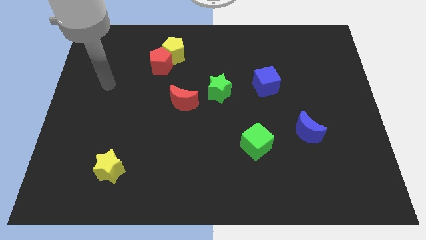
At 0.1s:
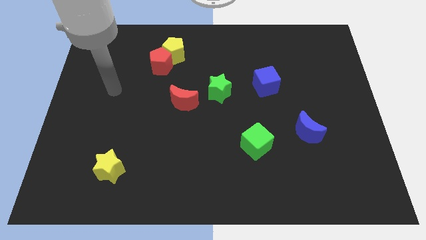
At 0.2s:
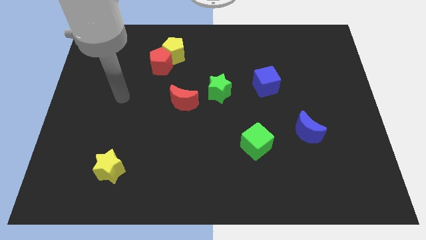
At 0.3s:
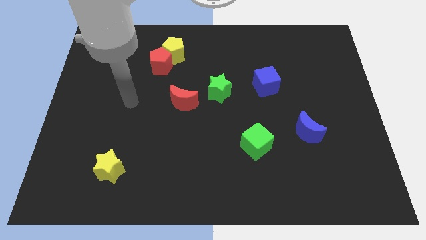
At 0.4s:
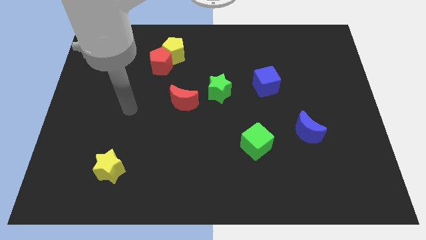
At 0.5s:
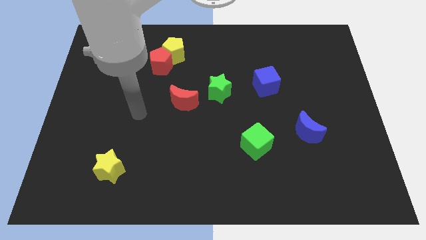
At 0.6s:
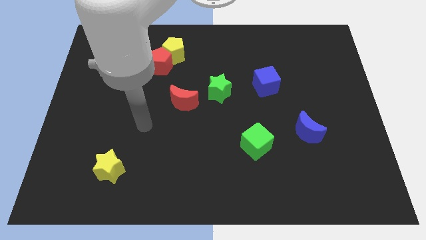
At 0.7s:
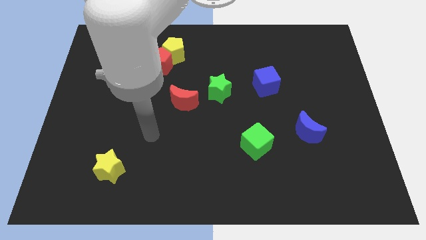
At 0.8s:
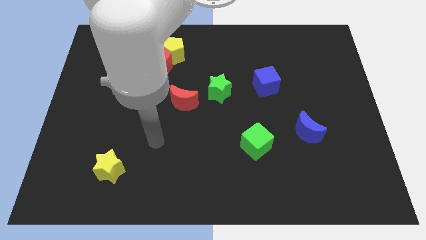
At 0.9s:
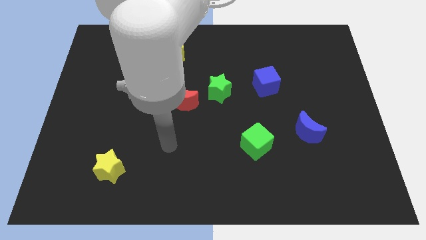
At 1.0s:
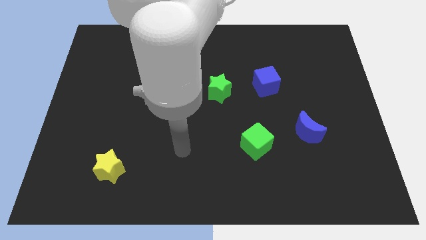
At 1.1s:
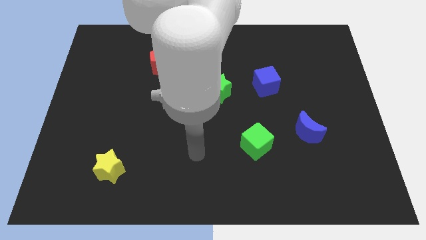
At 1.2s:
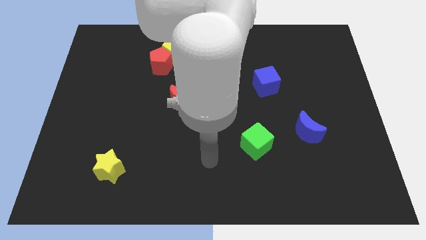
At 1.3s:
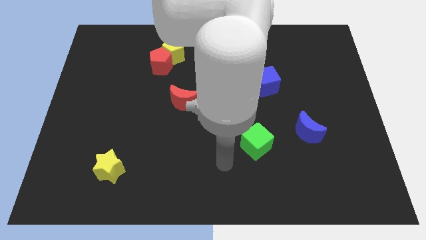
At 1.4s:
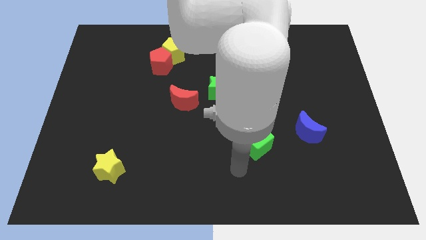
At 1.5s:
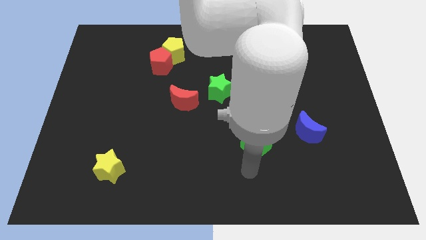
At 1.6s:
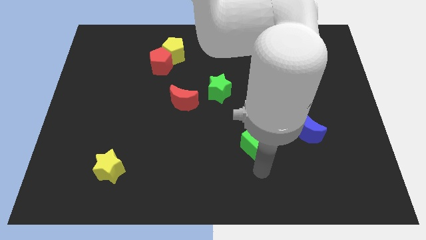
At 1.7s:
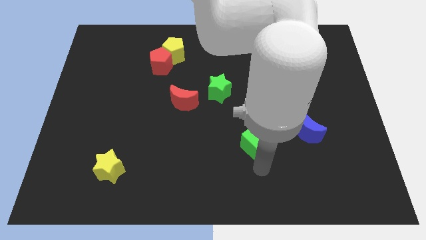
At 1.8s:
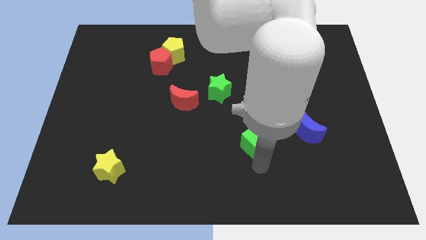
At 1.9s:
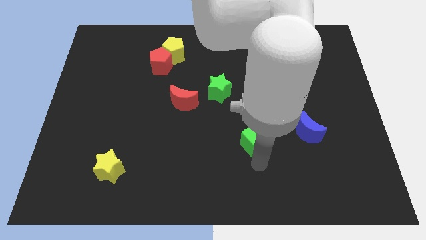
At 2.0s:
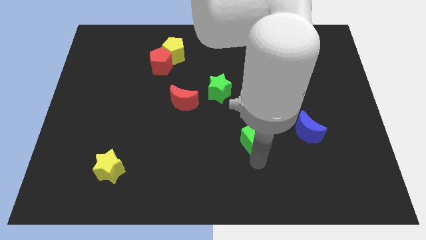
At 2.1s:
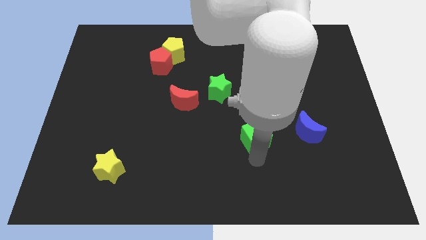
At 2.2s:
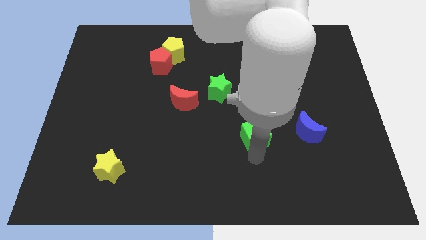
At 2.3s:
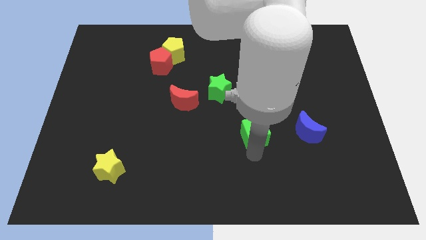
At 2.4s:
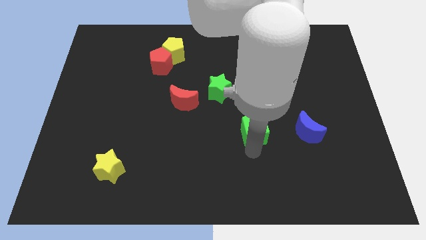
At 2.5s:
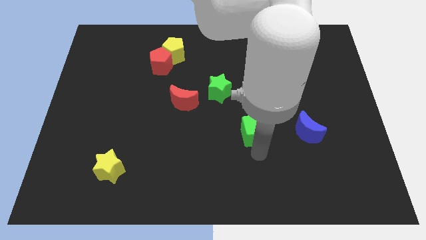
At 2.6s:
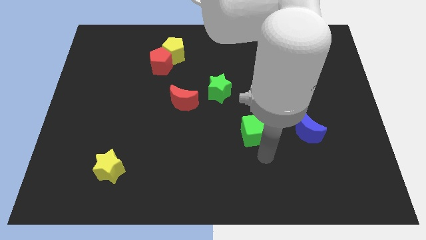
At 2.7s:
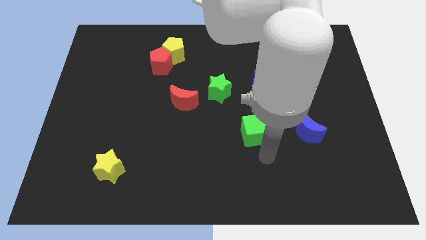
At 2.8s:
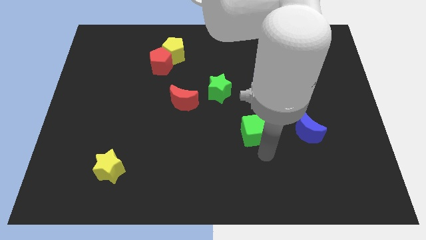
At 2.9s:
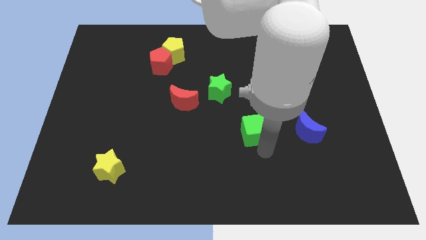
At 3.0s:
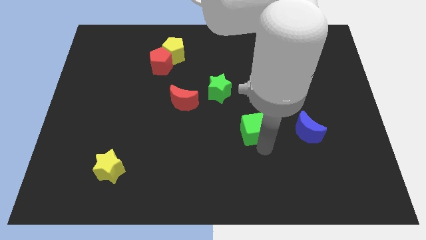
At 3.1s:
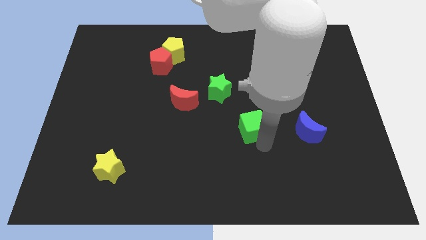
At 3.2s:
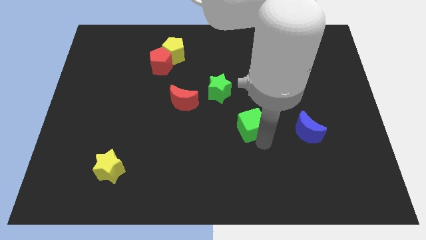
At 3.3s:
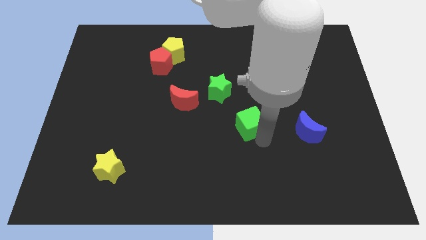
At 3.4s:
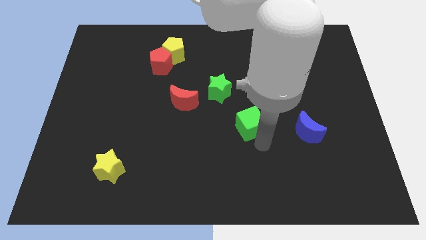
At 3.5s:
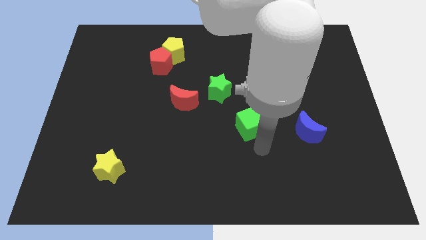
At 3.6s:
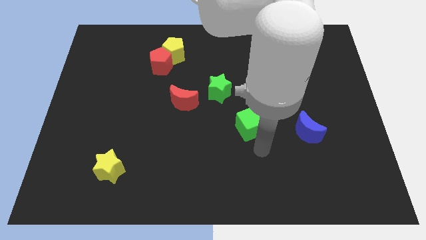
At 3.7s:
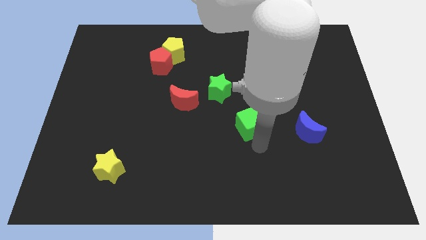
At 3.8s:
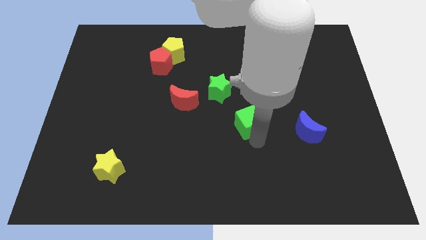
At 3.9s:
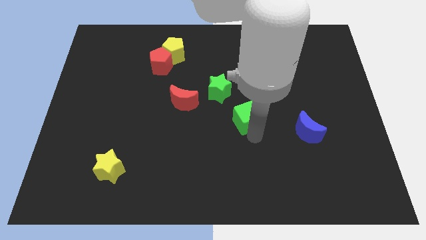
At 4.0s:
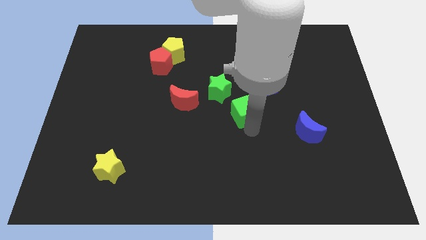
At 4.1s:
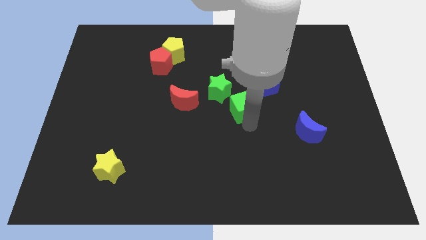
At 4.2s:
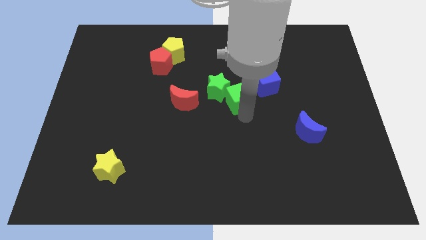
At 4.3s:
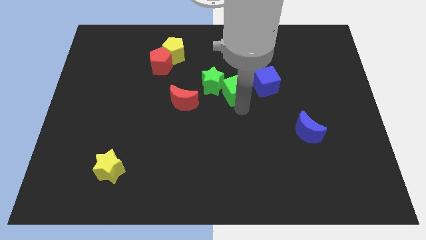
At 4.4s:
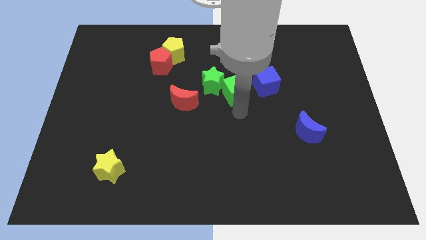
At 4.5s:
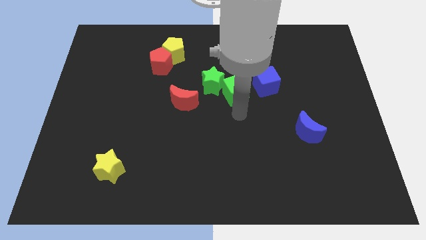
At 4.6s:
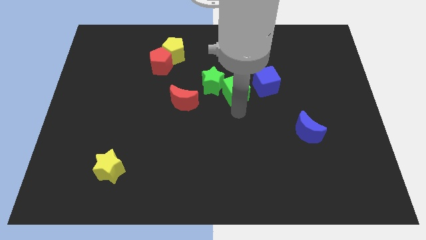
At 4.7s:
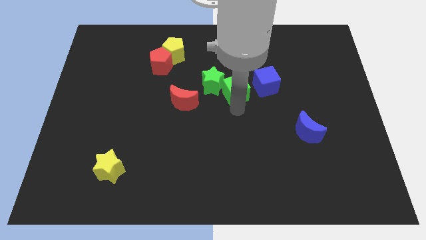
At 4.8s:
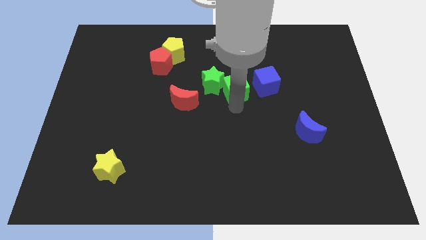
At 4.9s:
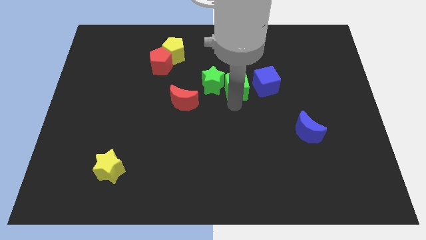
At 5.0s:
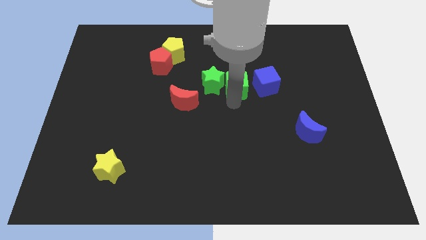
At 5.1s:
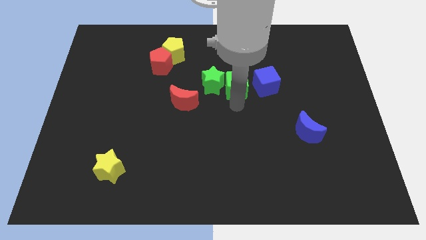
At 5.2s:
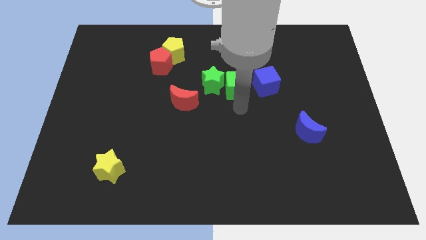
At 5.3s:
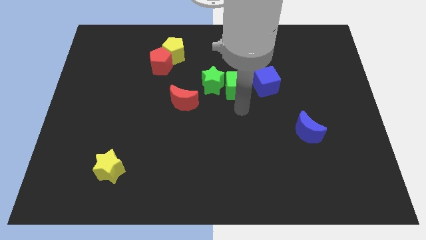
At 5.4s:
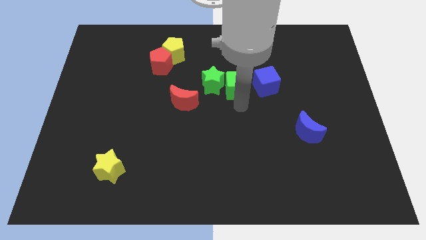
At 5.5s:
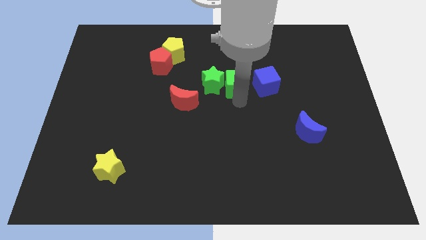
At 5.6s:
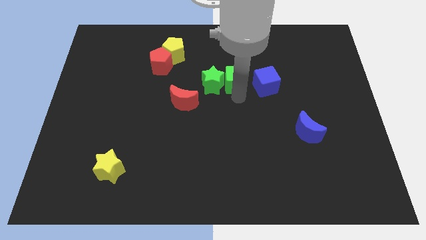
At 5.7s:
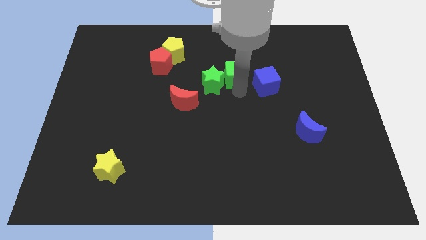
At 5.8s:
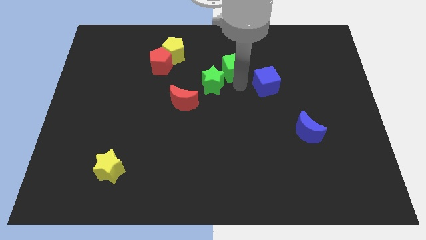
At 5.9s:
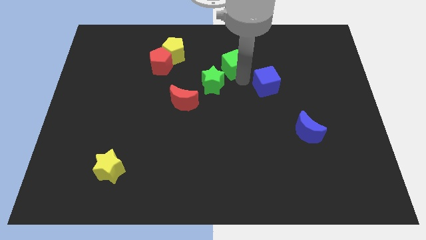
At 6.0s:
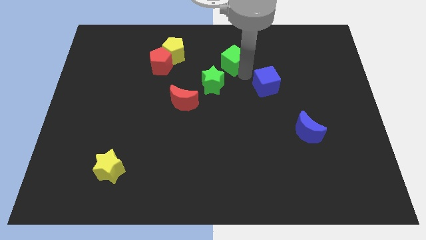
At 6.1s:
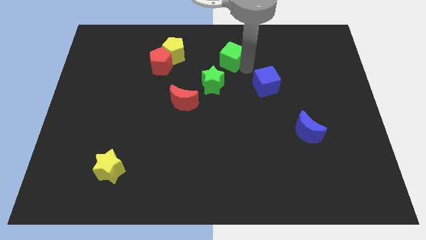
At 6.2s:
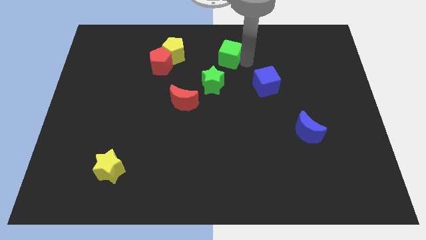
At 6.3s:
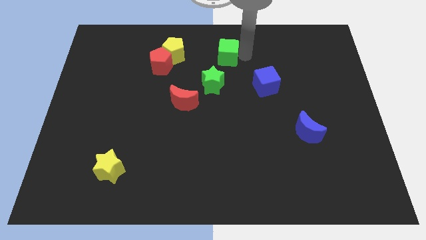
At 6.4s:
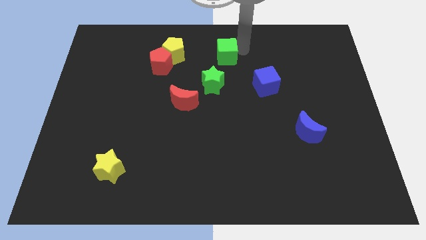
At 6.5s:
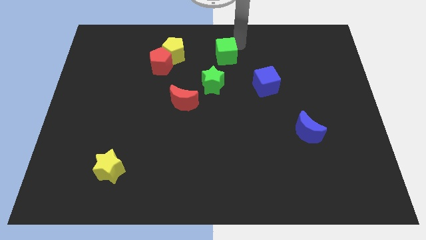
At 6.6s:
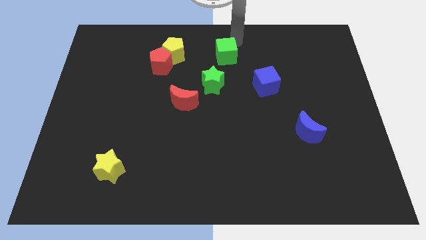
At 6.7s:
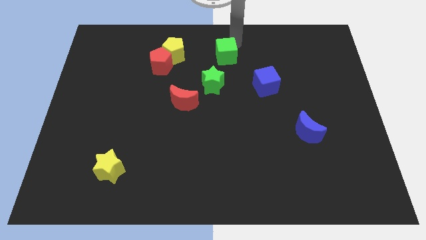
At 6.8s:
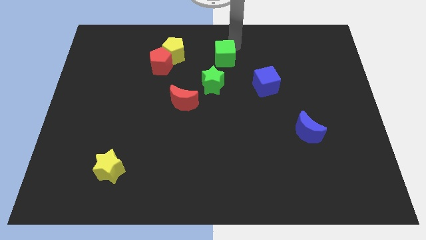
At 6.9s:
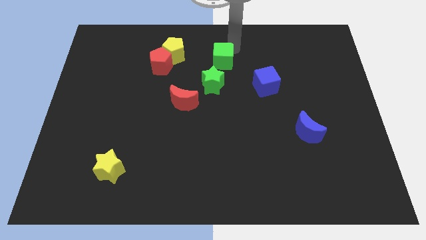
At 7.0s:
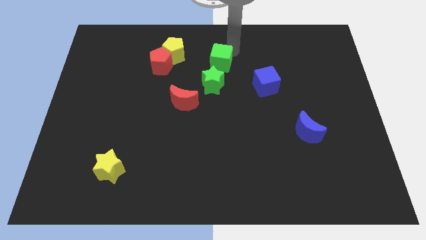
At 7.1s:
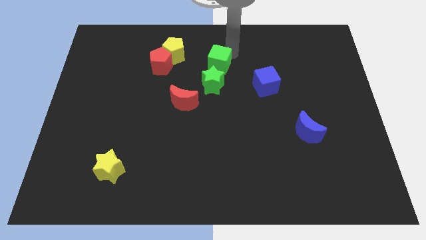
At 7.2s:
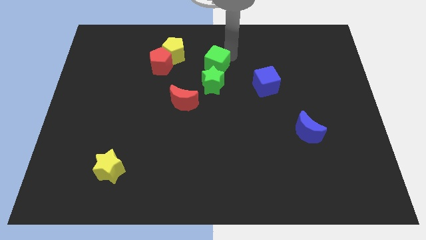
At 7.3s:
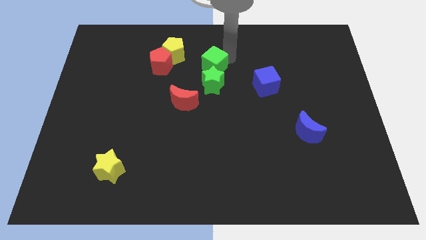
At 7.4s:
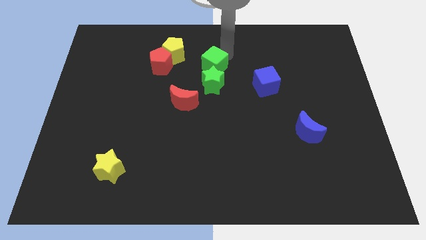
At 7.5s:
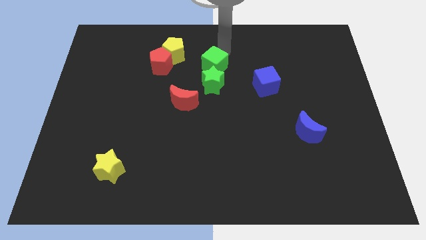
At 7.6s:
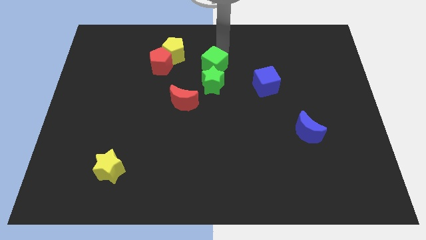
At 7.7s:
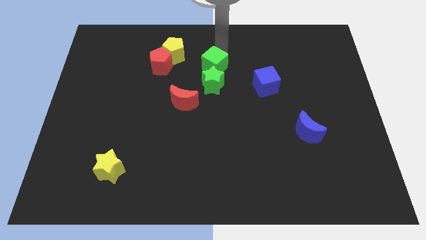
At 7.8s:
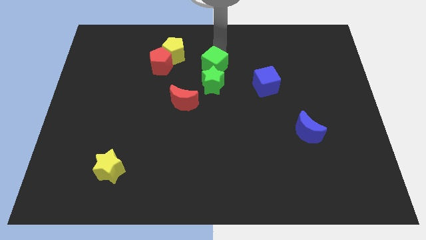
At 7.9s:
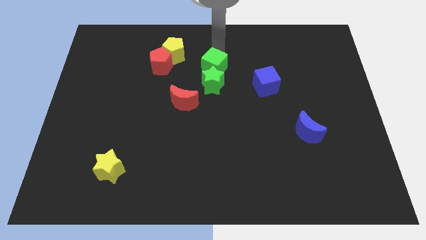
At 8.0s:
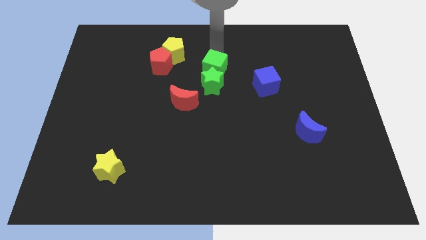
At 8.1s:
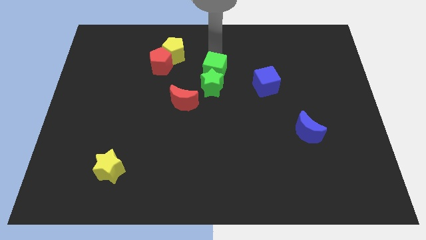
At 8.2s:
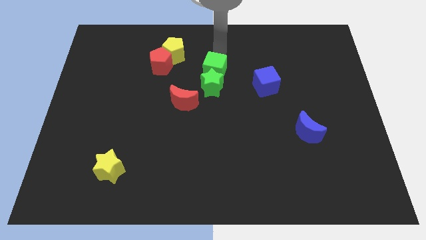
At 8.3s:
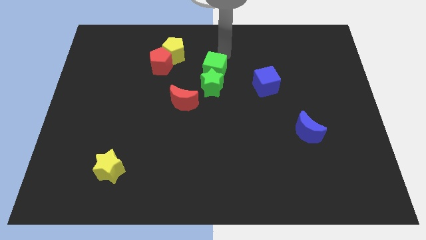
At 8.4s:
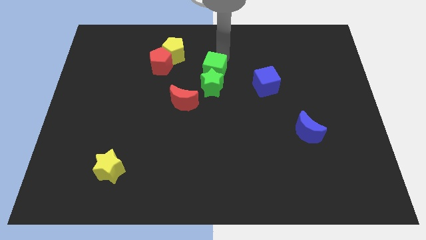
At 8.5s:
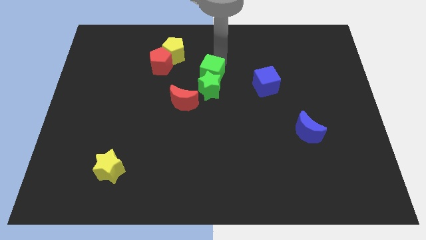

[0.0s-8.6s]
push the green cube to the top right side of the red moon
